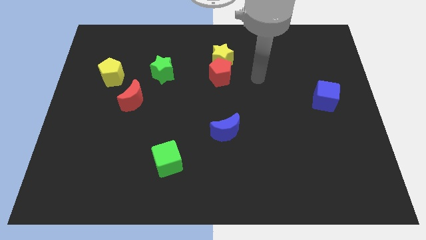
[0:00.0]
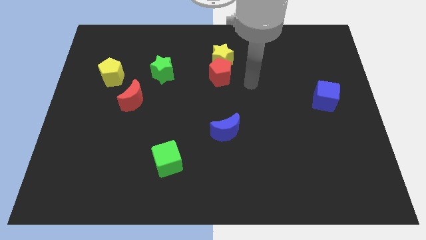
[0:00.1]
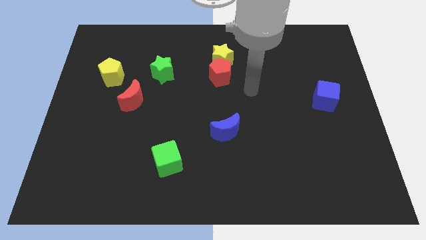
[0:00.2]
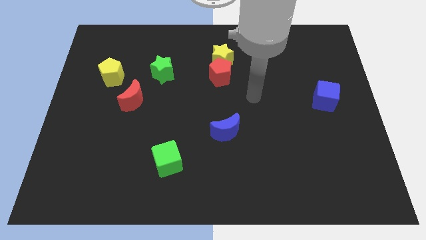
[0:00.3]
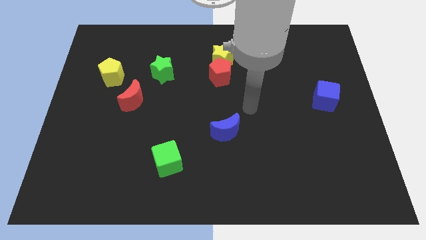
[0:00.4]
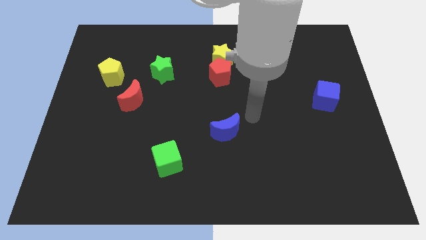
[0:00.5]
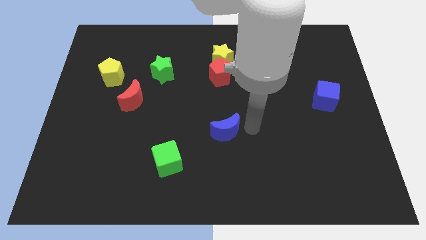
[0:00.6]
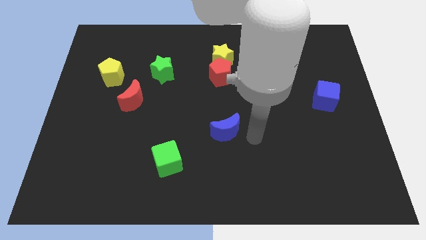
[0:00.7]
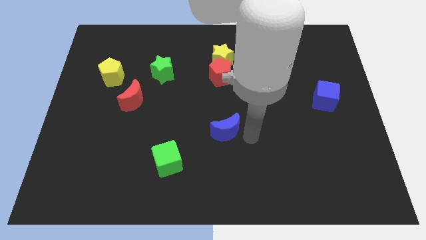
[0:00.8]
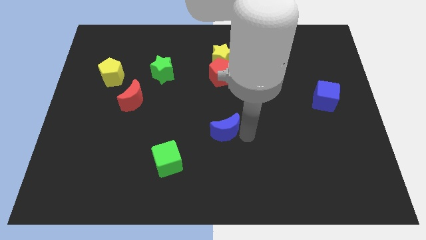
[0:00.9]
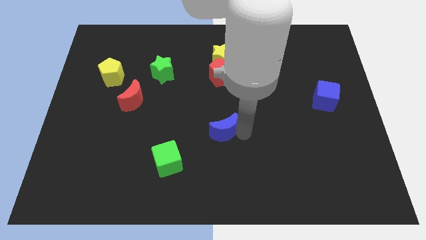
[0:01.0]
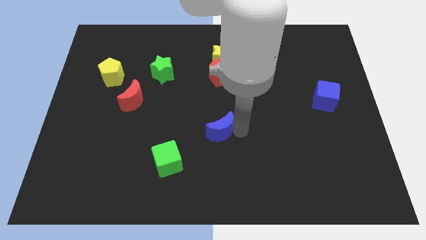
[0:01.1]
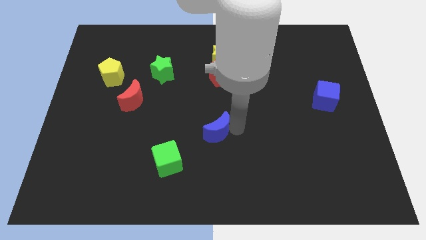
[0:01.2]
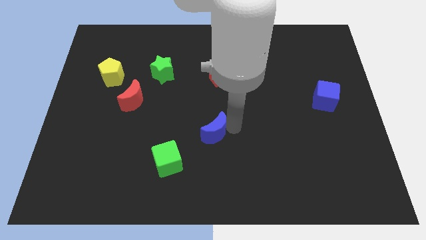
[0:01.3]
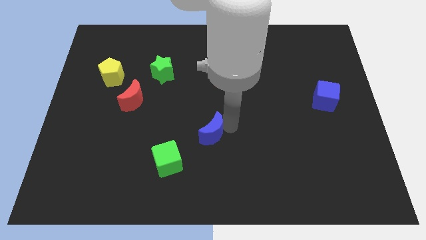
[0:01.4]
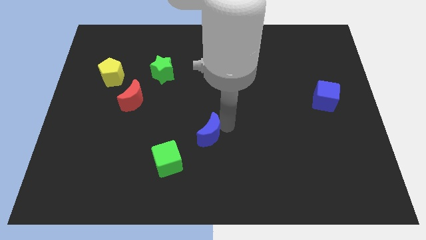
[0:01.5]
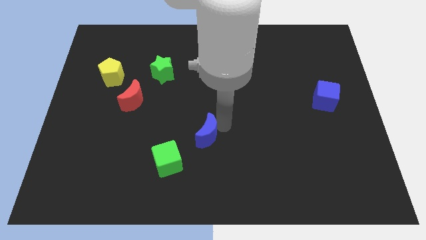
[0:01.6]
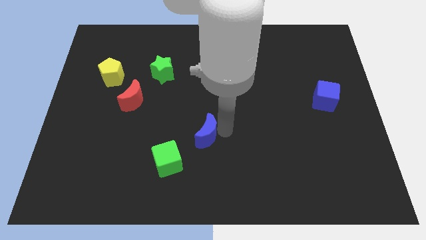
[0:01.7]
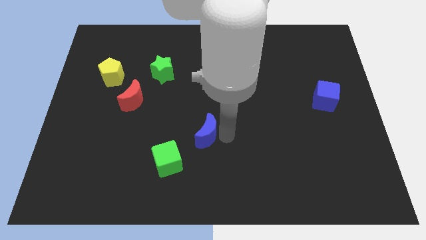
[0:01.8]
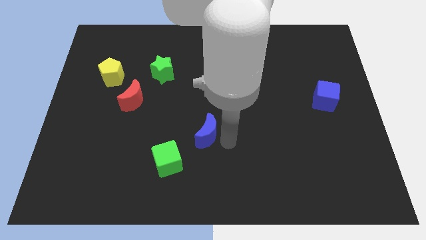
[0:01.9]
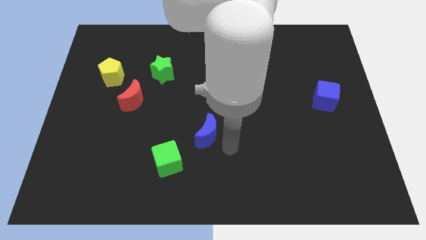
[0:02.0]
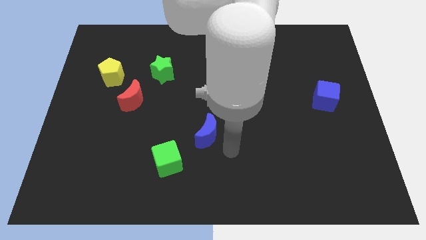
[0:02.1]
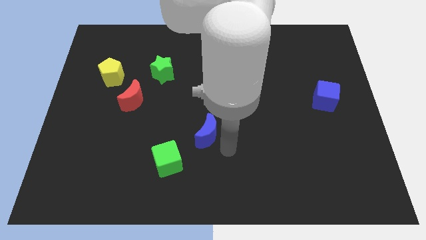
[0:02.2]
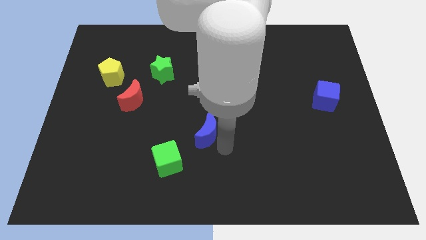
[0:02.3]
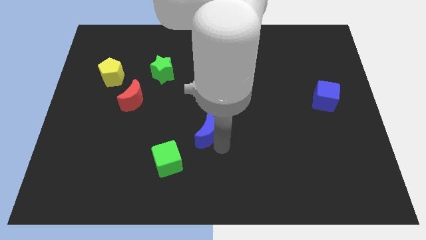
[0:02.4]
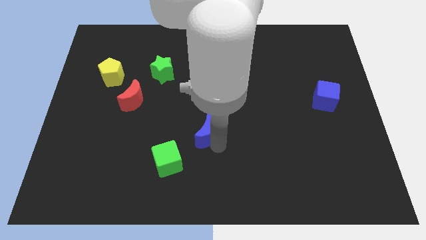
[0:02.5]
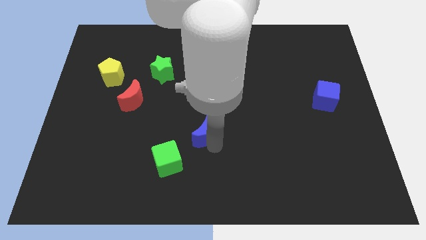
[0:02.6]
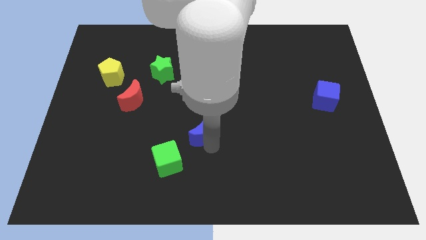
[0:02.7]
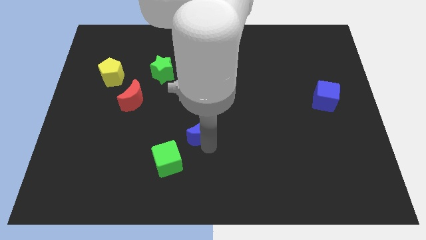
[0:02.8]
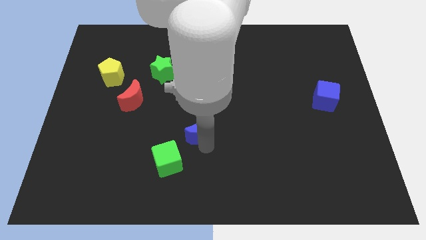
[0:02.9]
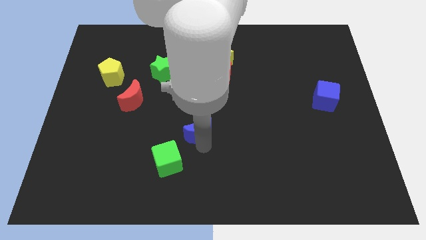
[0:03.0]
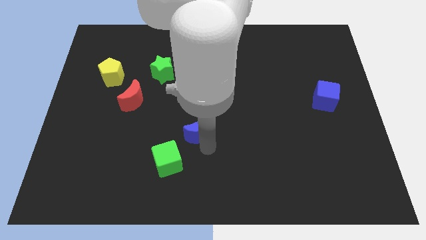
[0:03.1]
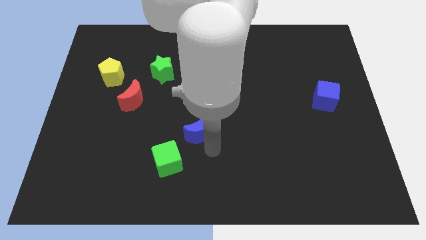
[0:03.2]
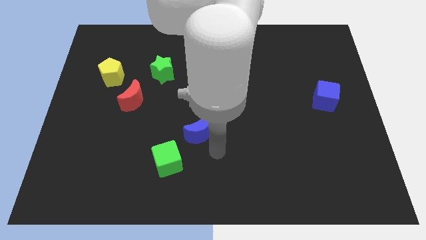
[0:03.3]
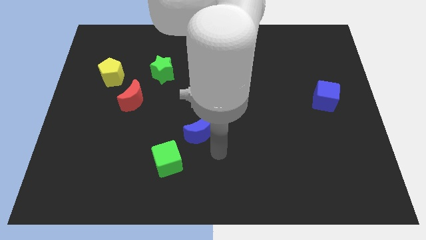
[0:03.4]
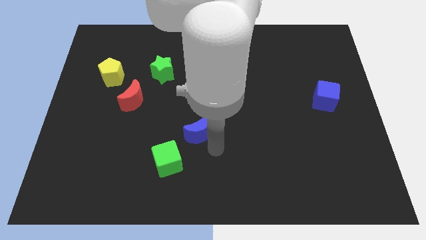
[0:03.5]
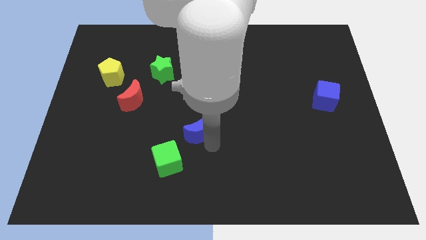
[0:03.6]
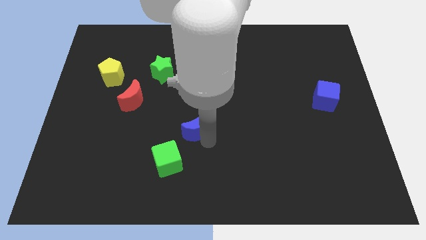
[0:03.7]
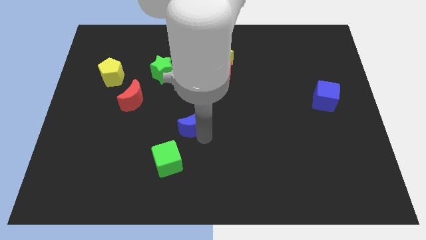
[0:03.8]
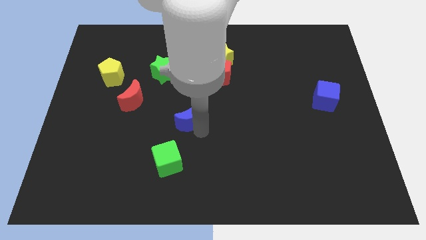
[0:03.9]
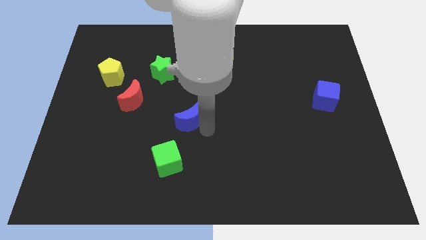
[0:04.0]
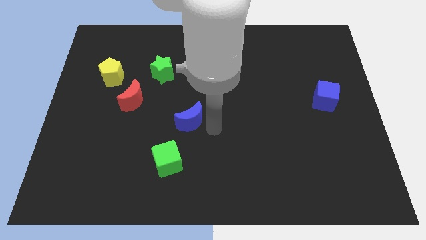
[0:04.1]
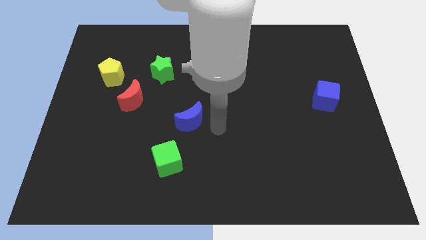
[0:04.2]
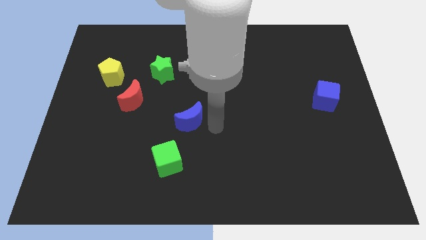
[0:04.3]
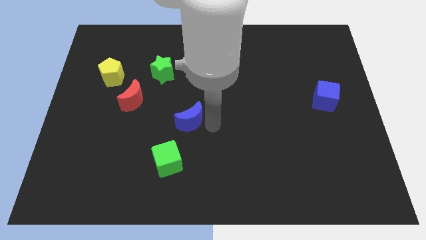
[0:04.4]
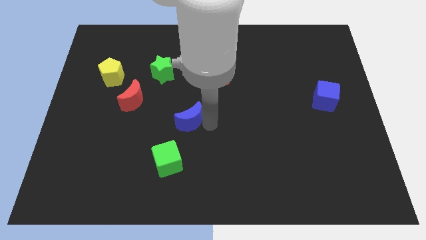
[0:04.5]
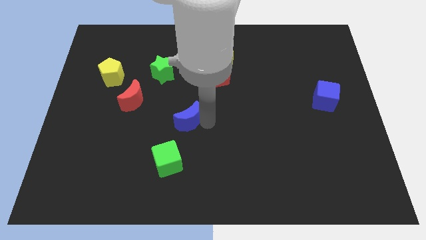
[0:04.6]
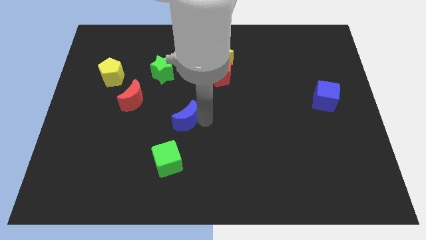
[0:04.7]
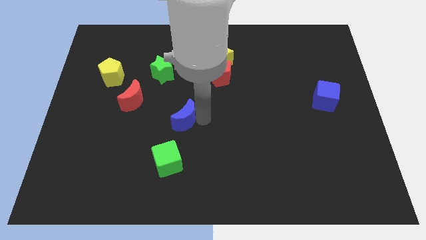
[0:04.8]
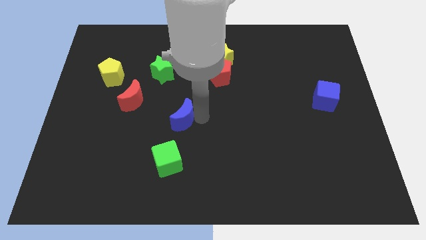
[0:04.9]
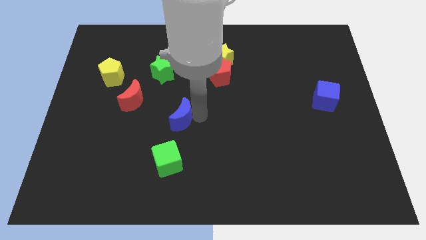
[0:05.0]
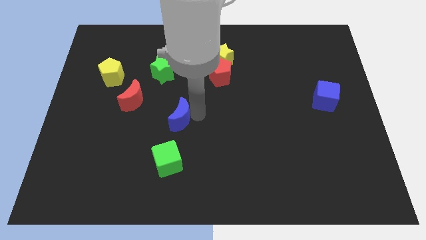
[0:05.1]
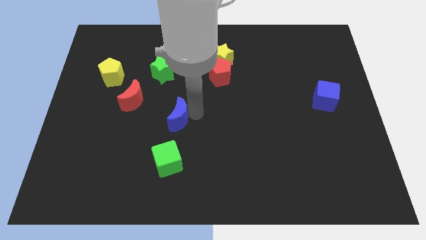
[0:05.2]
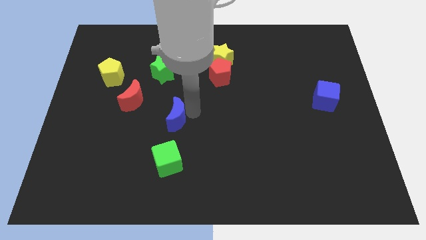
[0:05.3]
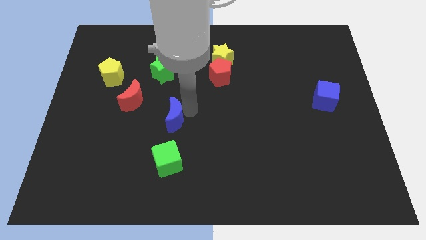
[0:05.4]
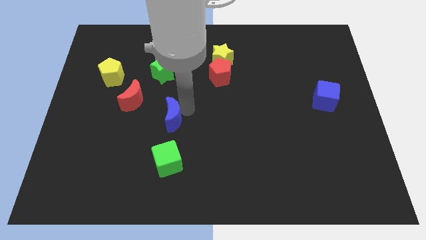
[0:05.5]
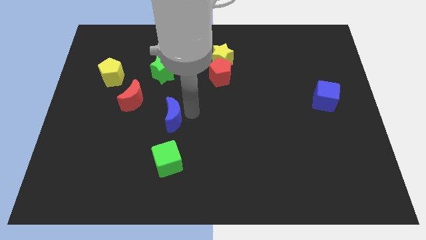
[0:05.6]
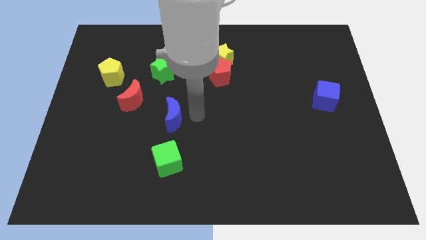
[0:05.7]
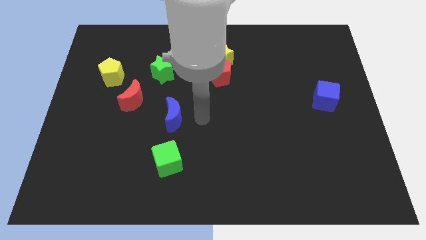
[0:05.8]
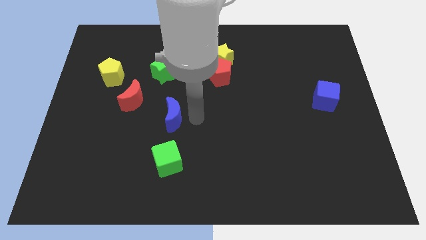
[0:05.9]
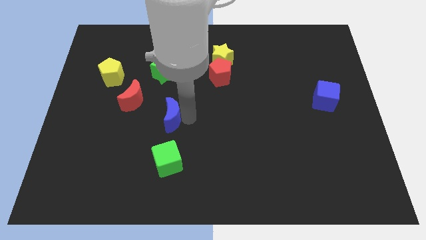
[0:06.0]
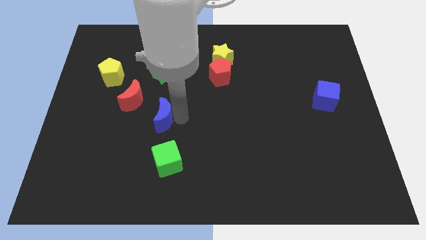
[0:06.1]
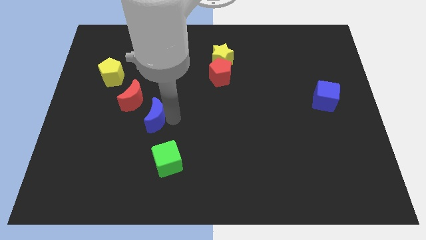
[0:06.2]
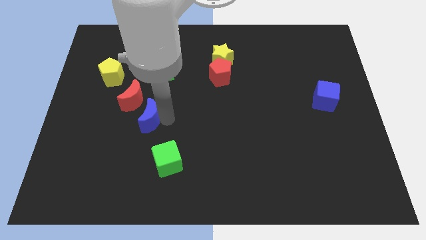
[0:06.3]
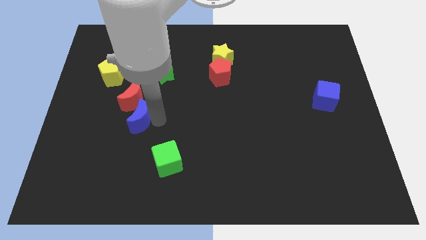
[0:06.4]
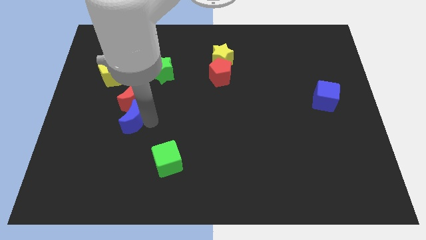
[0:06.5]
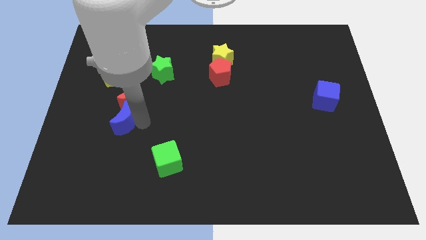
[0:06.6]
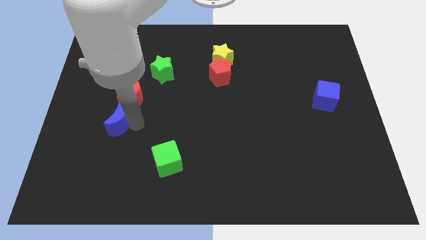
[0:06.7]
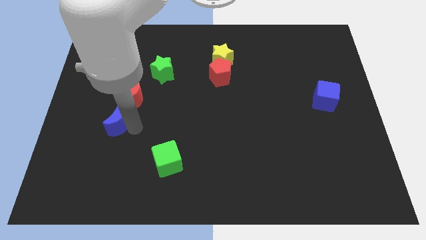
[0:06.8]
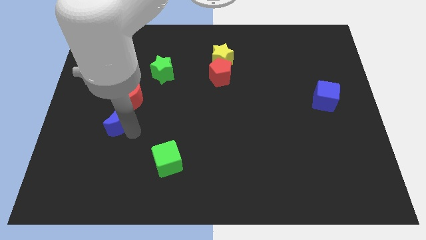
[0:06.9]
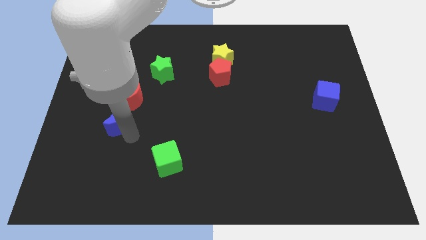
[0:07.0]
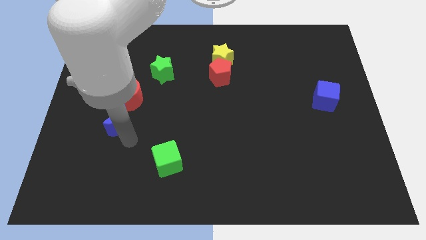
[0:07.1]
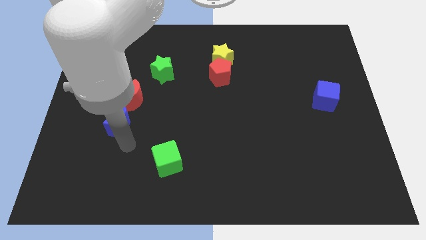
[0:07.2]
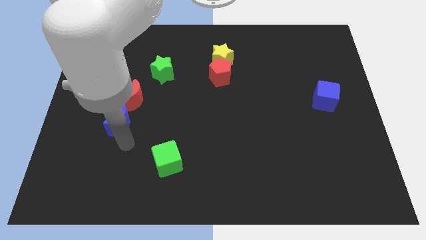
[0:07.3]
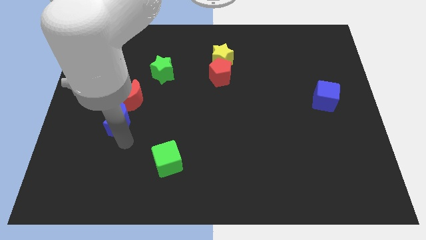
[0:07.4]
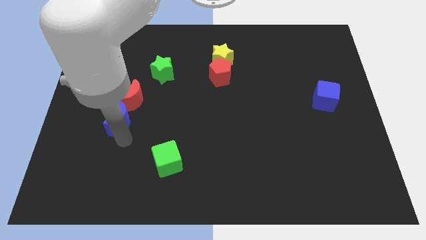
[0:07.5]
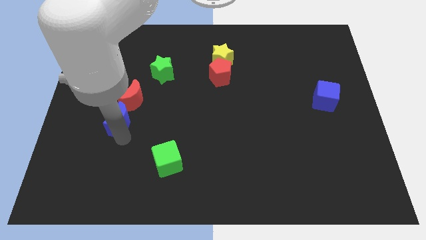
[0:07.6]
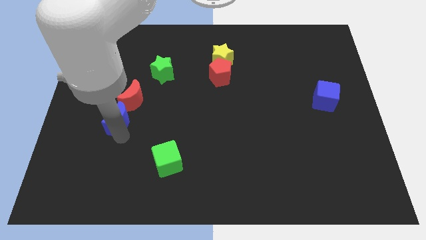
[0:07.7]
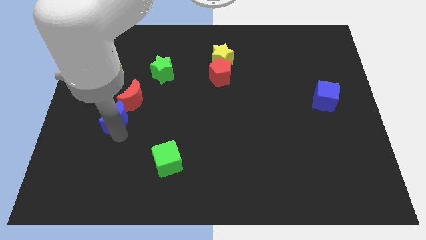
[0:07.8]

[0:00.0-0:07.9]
put the blue moon to the bottom side of the yellow pentagon
